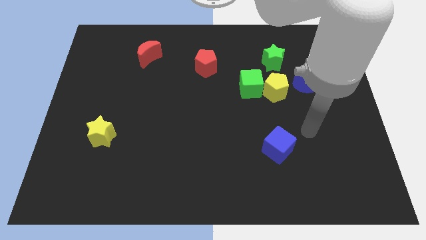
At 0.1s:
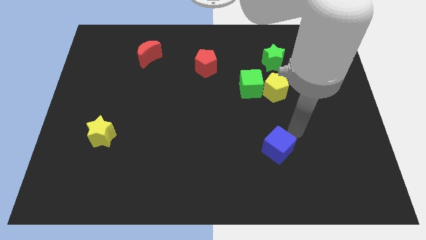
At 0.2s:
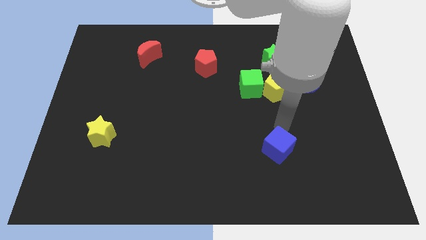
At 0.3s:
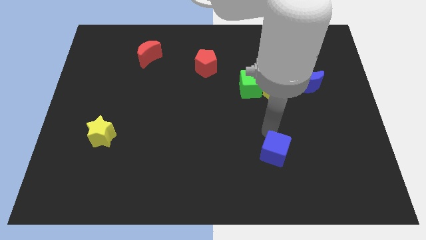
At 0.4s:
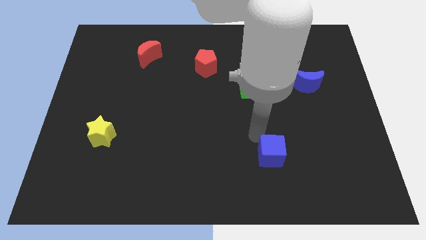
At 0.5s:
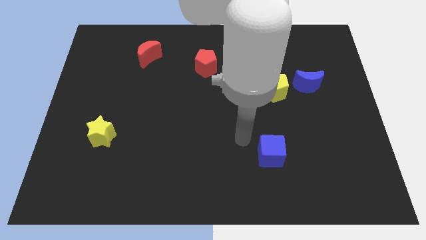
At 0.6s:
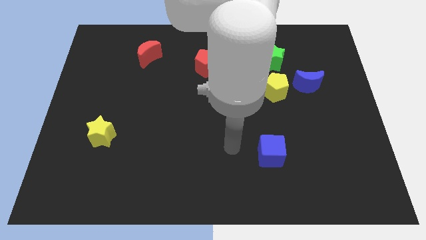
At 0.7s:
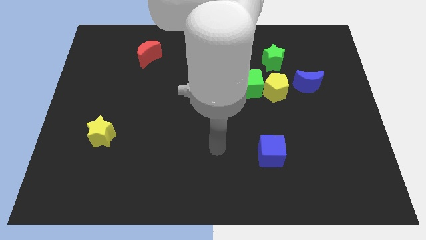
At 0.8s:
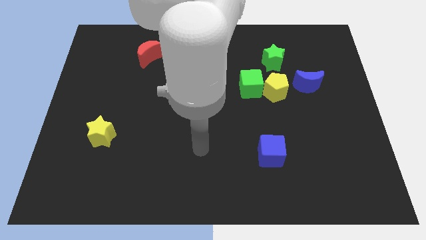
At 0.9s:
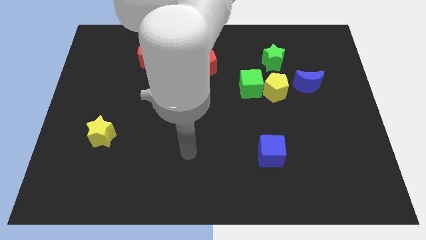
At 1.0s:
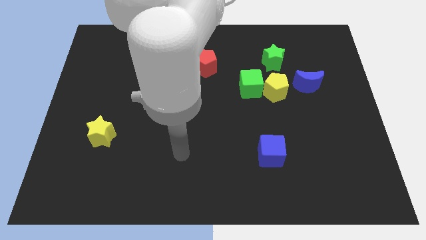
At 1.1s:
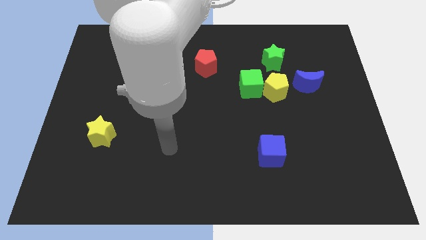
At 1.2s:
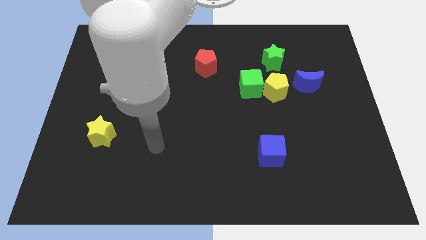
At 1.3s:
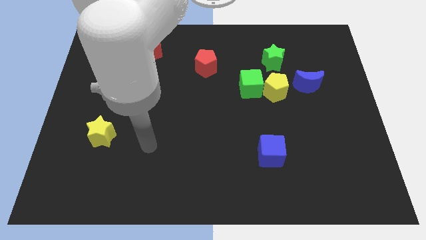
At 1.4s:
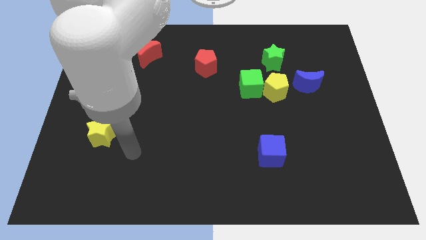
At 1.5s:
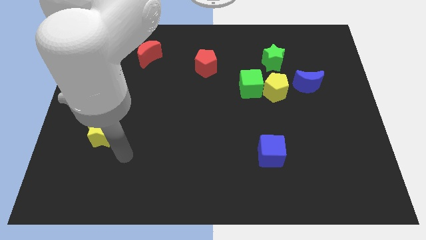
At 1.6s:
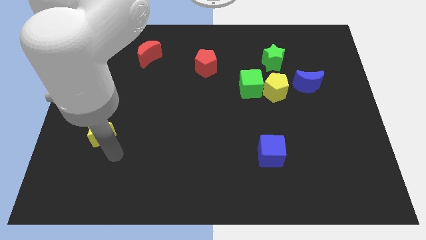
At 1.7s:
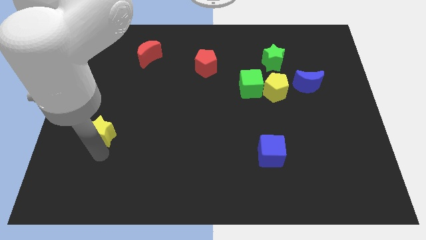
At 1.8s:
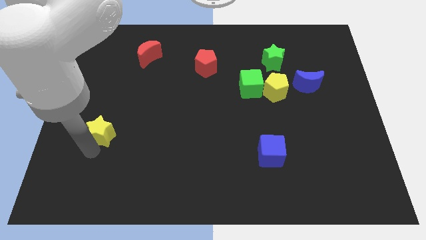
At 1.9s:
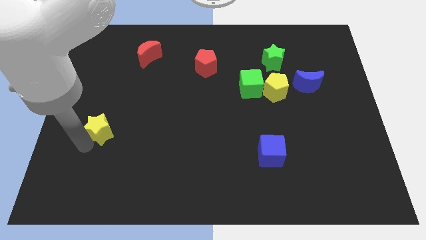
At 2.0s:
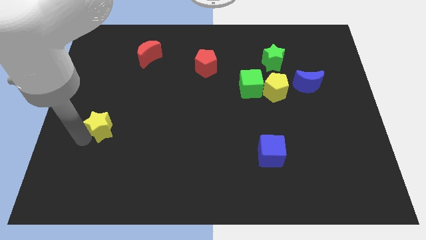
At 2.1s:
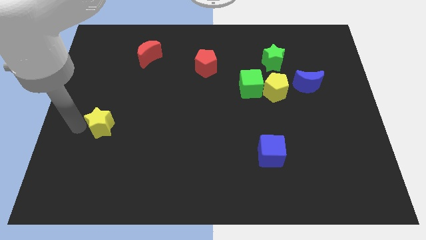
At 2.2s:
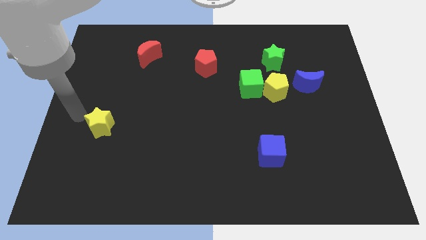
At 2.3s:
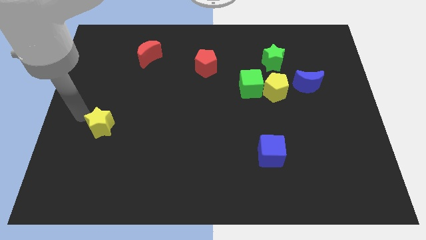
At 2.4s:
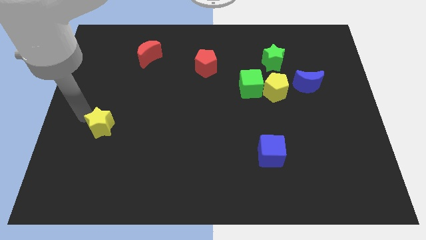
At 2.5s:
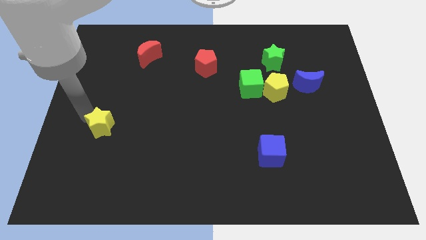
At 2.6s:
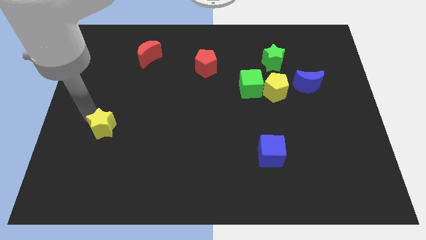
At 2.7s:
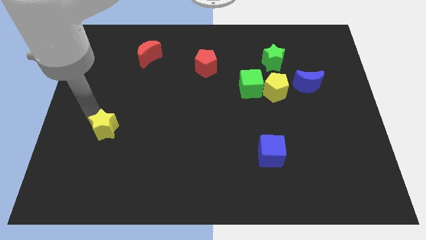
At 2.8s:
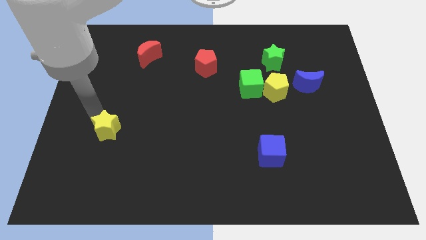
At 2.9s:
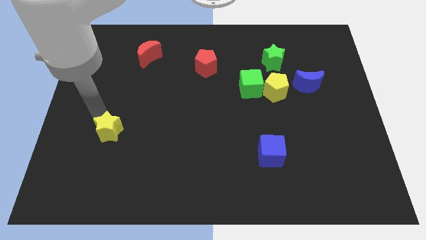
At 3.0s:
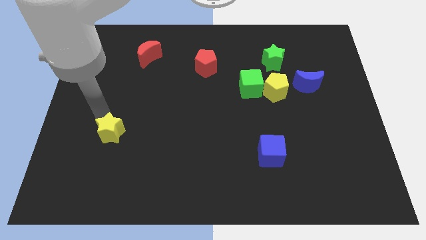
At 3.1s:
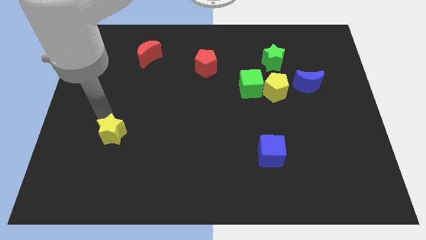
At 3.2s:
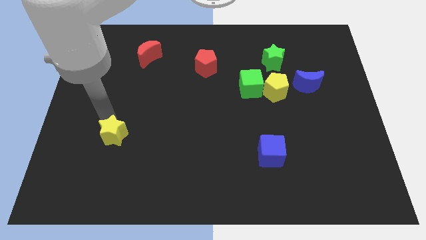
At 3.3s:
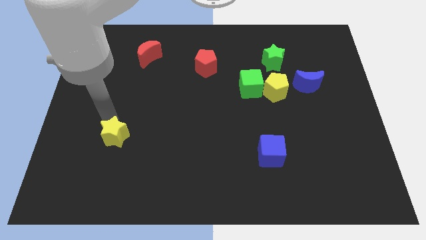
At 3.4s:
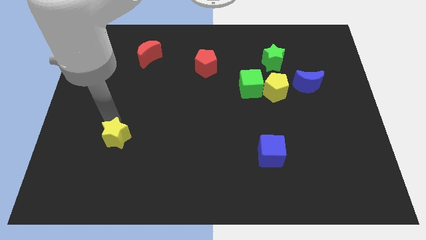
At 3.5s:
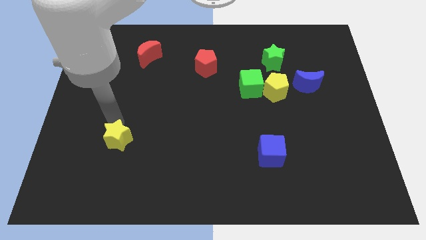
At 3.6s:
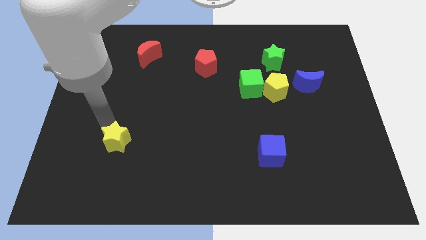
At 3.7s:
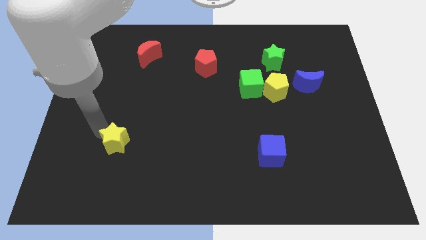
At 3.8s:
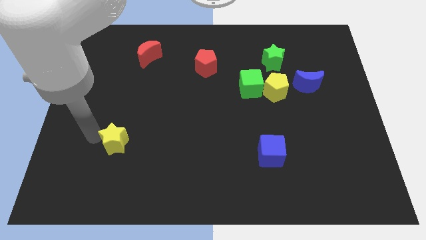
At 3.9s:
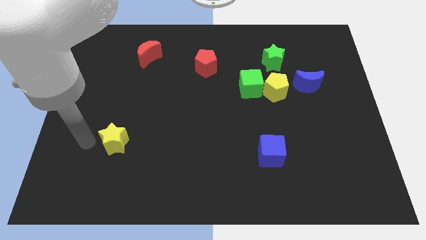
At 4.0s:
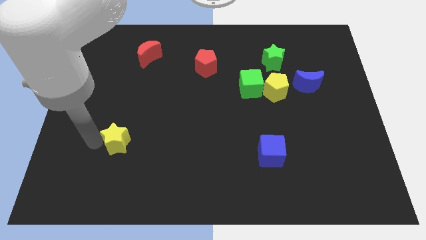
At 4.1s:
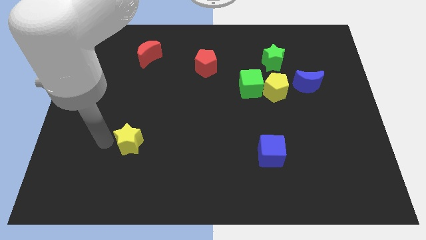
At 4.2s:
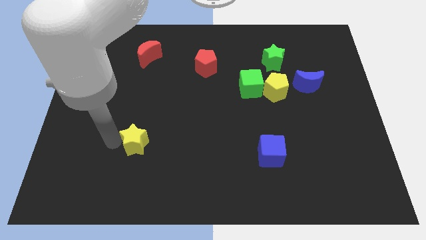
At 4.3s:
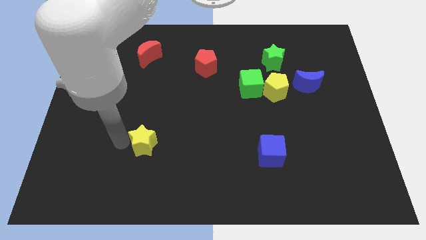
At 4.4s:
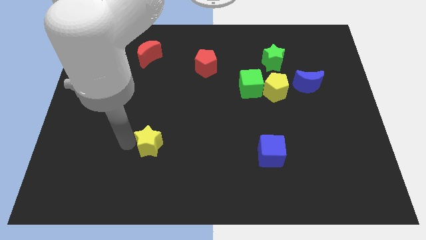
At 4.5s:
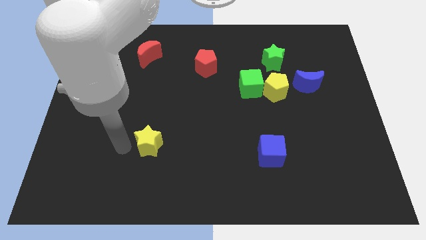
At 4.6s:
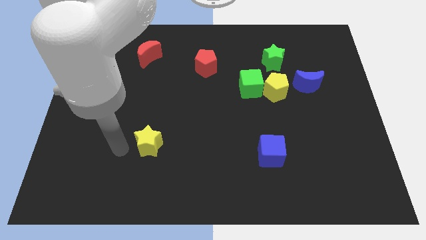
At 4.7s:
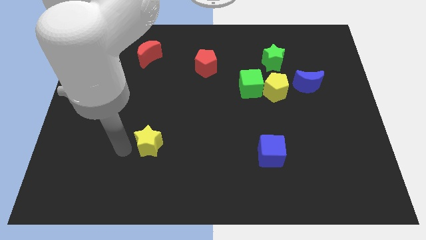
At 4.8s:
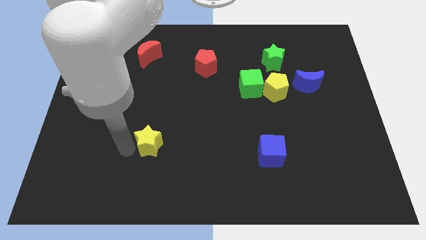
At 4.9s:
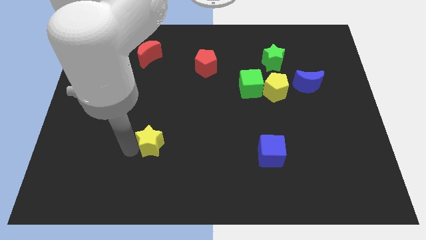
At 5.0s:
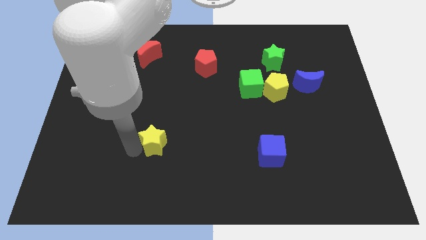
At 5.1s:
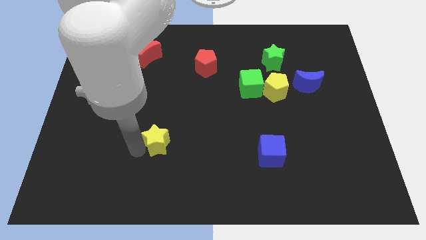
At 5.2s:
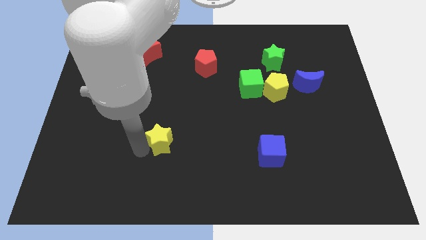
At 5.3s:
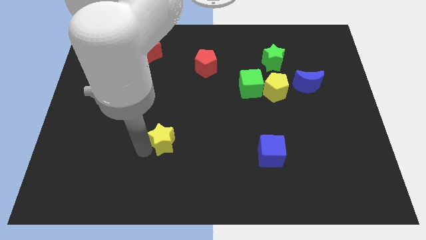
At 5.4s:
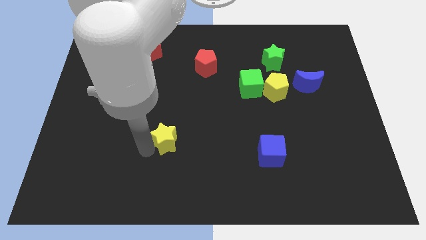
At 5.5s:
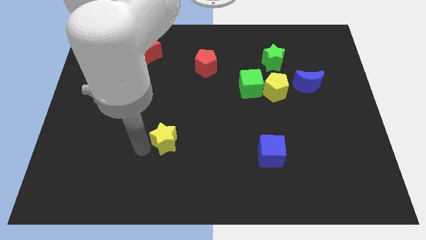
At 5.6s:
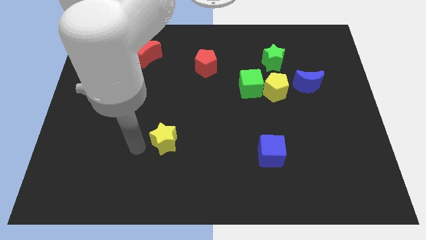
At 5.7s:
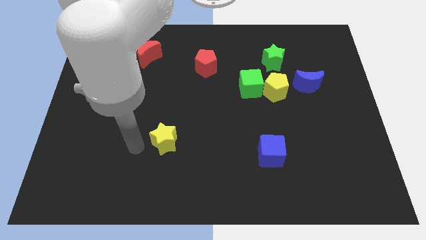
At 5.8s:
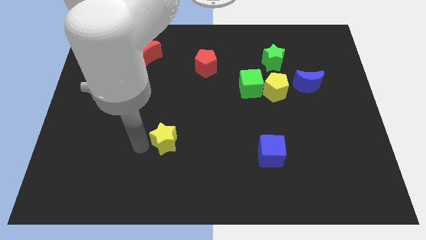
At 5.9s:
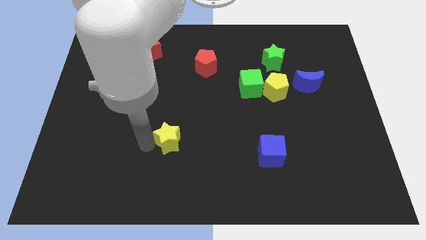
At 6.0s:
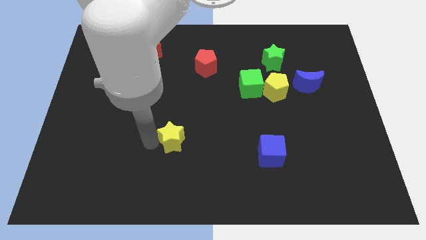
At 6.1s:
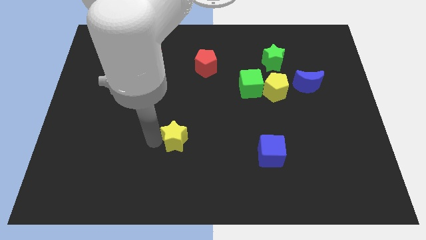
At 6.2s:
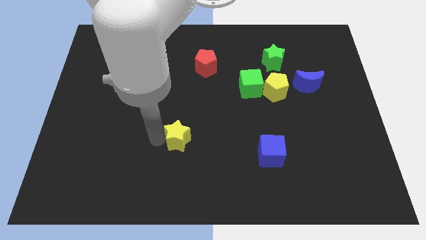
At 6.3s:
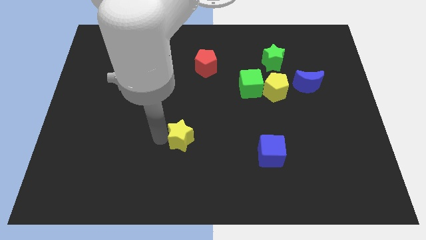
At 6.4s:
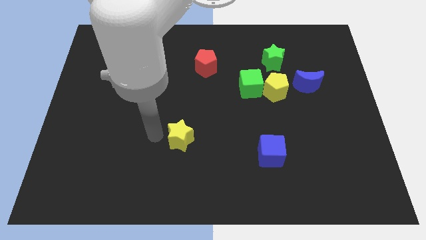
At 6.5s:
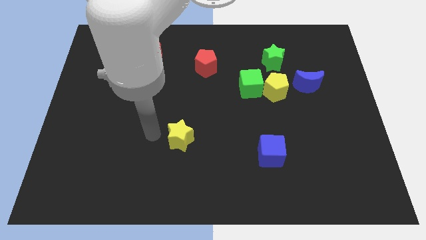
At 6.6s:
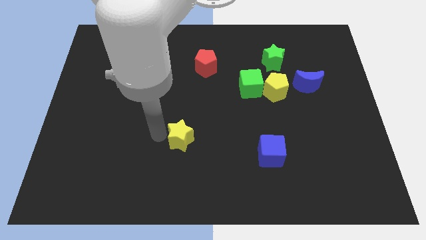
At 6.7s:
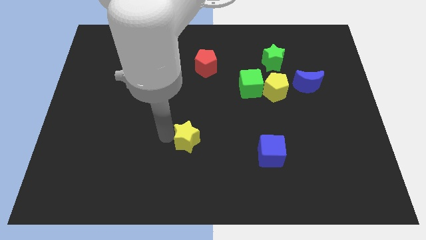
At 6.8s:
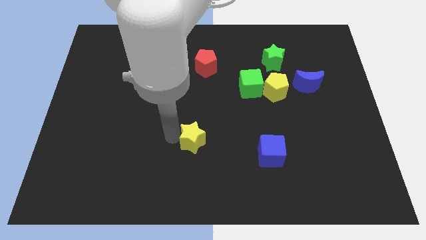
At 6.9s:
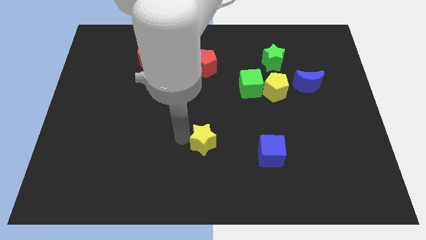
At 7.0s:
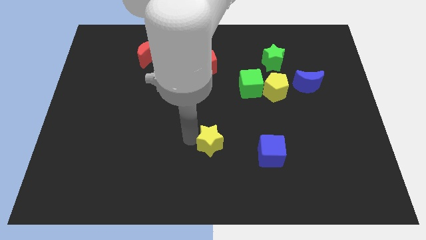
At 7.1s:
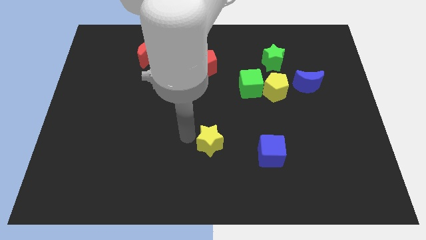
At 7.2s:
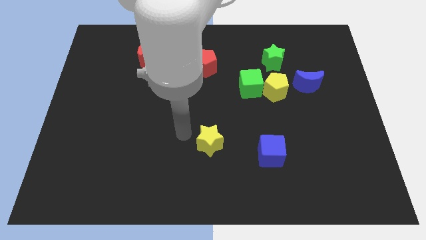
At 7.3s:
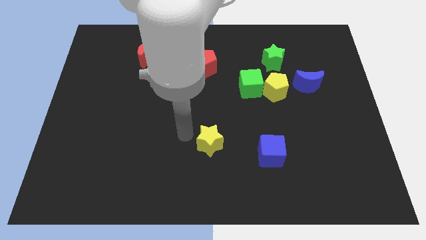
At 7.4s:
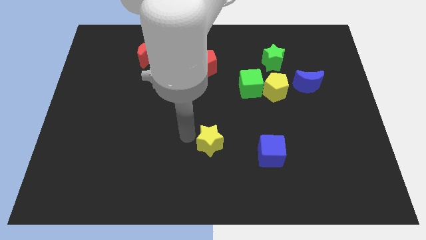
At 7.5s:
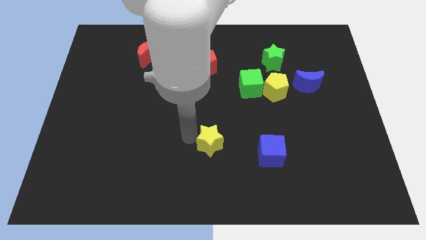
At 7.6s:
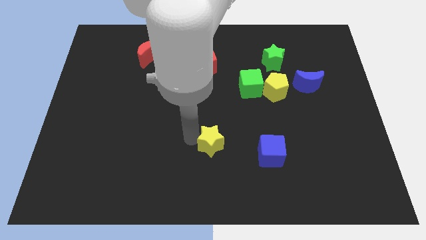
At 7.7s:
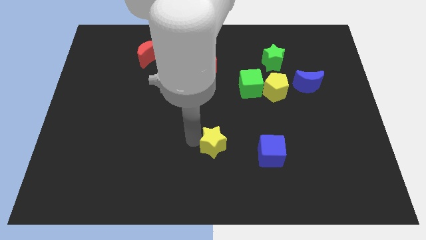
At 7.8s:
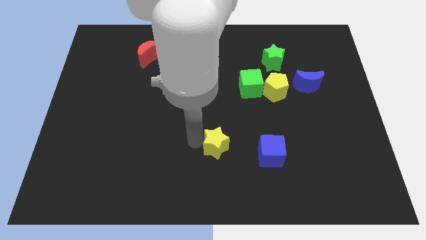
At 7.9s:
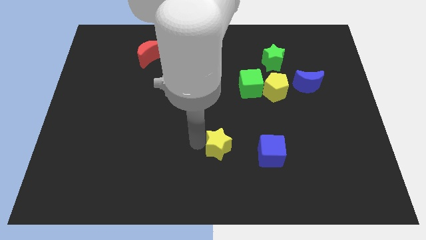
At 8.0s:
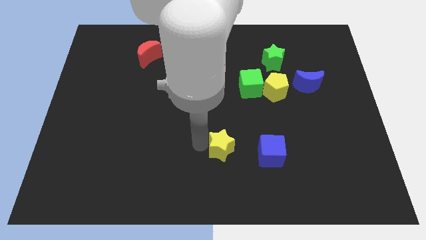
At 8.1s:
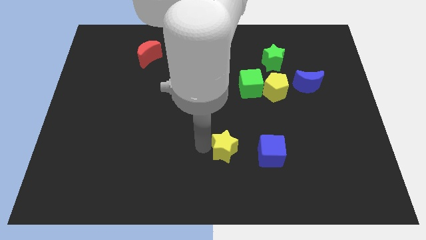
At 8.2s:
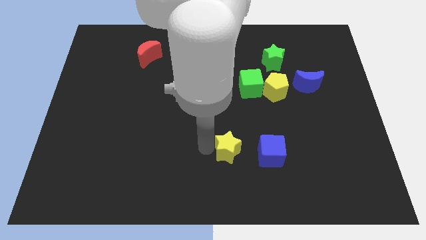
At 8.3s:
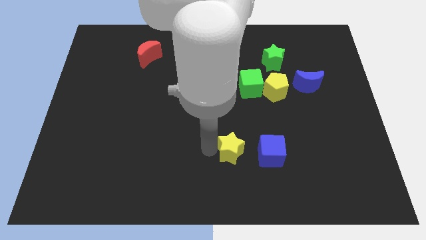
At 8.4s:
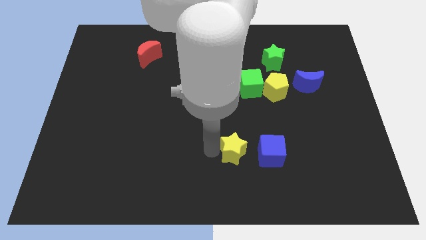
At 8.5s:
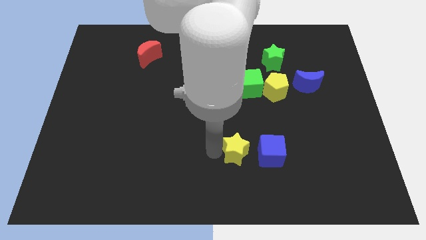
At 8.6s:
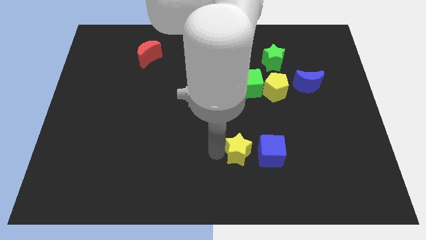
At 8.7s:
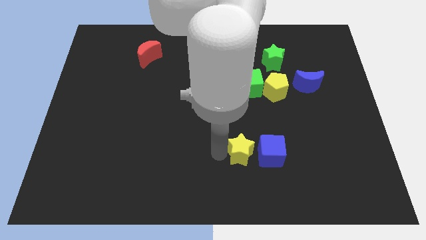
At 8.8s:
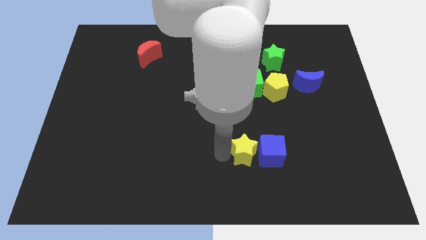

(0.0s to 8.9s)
slide the yellow star to the blue cube
